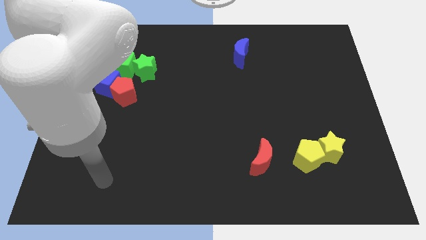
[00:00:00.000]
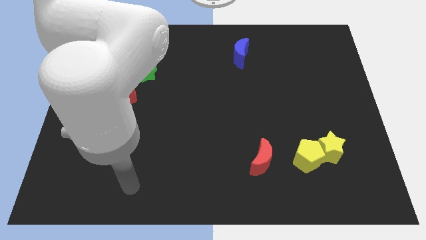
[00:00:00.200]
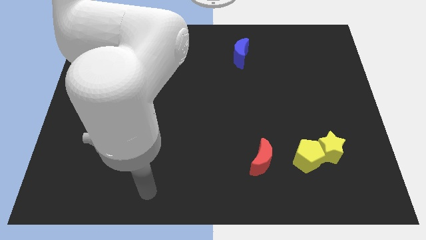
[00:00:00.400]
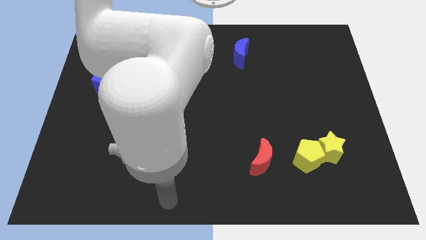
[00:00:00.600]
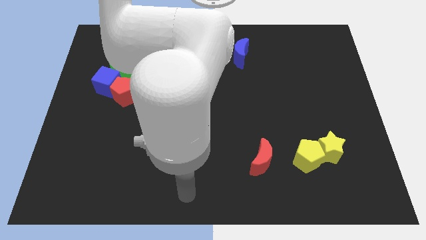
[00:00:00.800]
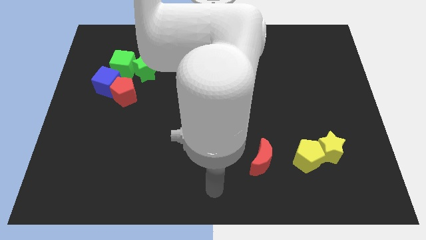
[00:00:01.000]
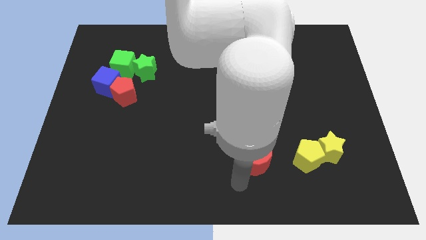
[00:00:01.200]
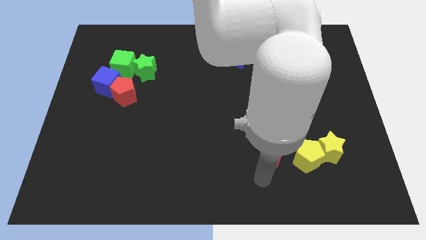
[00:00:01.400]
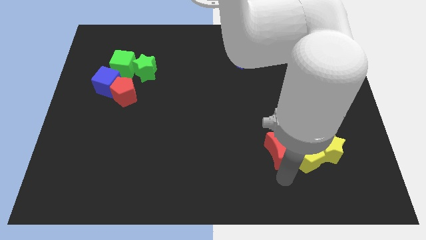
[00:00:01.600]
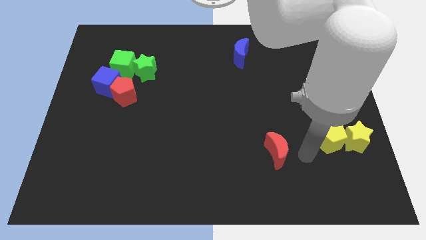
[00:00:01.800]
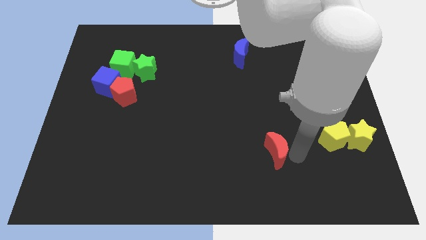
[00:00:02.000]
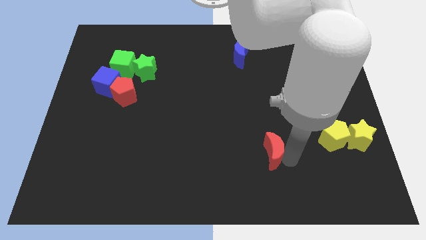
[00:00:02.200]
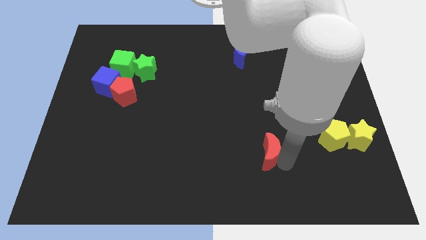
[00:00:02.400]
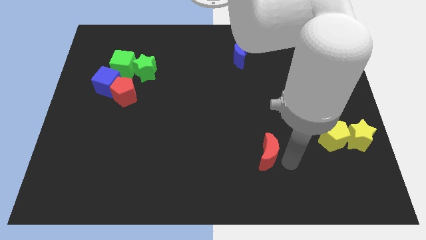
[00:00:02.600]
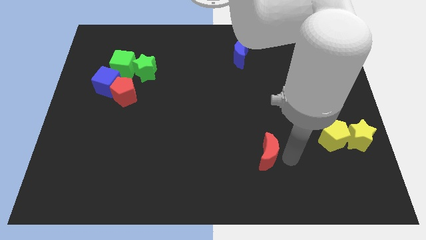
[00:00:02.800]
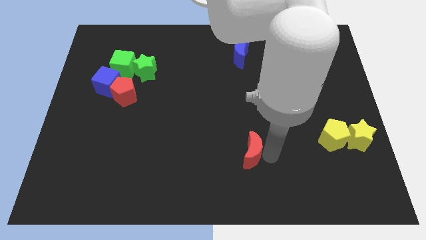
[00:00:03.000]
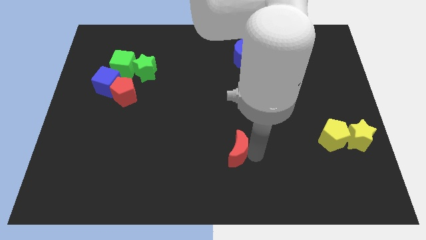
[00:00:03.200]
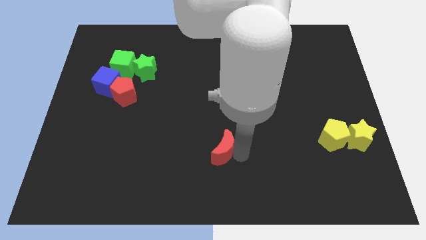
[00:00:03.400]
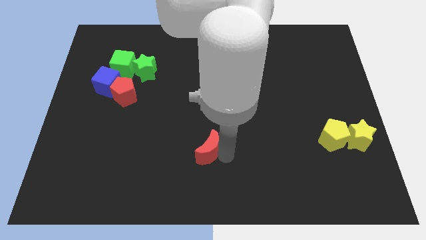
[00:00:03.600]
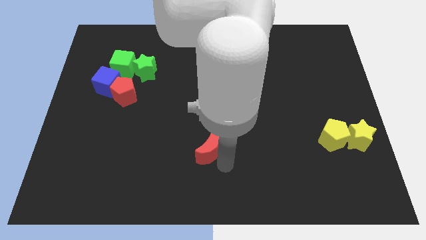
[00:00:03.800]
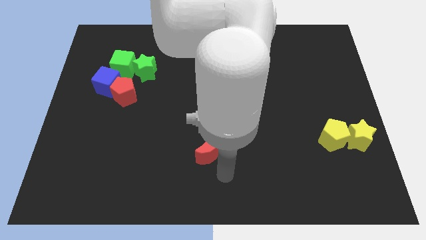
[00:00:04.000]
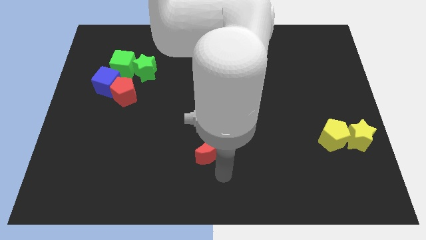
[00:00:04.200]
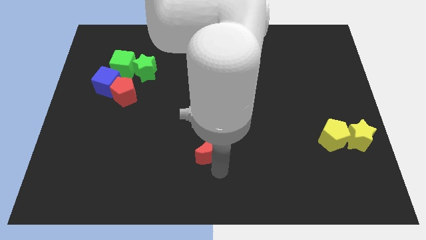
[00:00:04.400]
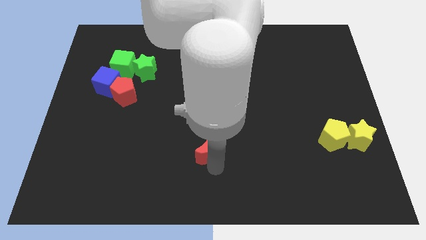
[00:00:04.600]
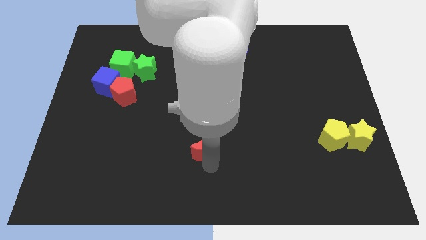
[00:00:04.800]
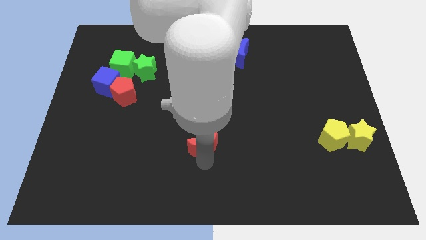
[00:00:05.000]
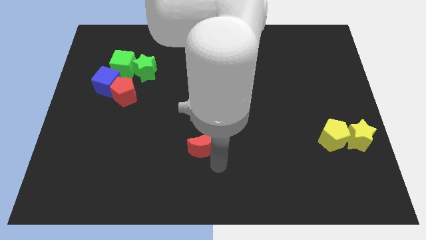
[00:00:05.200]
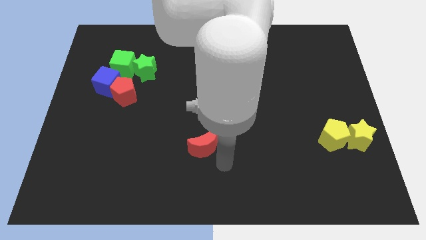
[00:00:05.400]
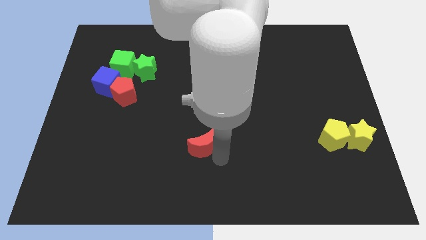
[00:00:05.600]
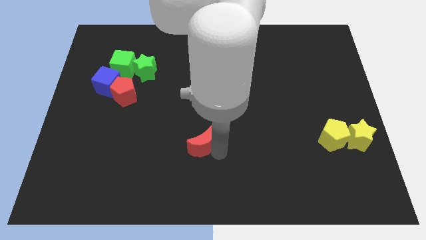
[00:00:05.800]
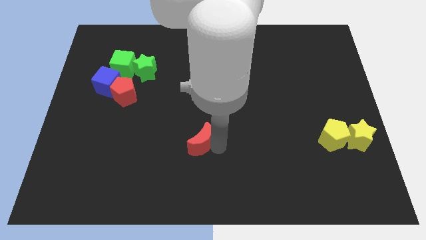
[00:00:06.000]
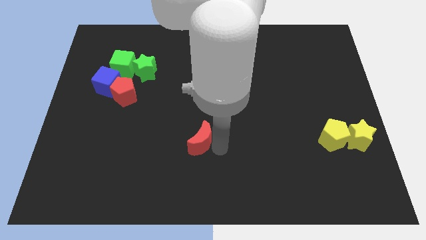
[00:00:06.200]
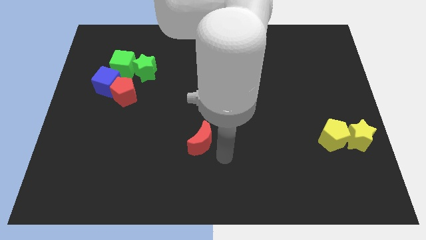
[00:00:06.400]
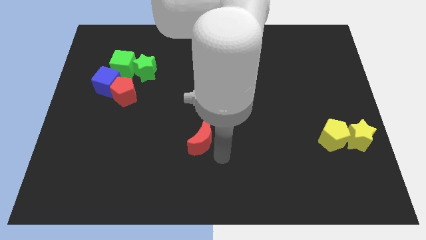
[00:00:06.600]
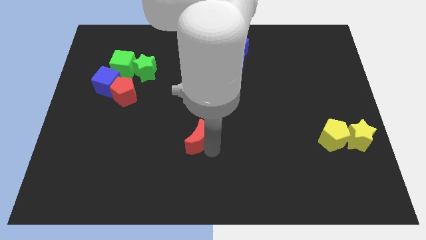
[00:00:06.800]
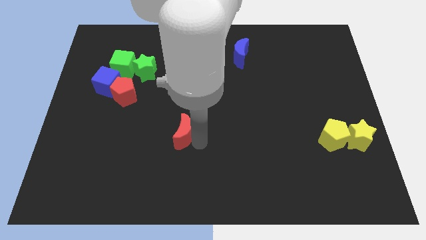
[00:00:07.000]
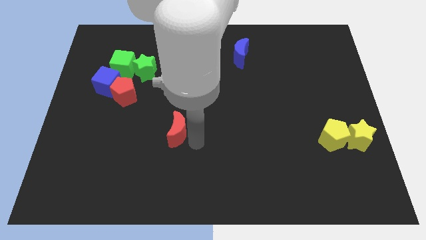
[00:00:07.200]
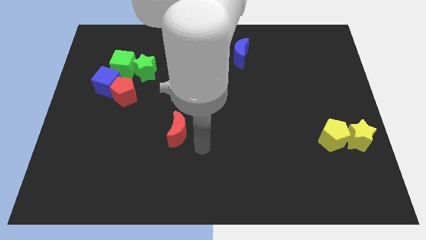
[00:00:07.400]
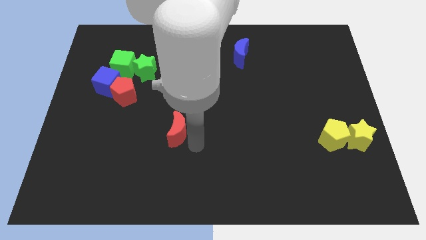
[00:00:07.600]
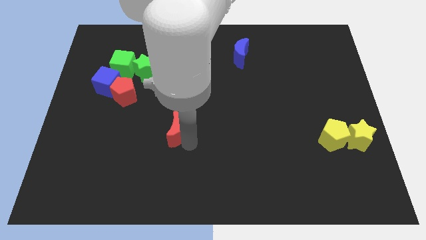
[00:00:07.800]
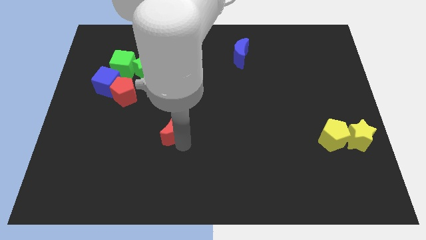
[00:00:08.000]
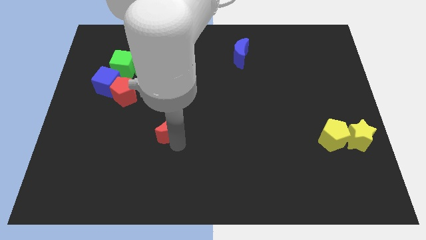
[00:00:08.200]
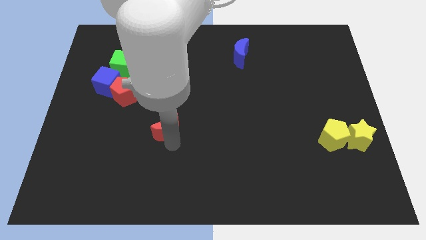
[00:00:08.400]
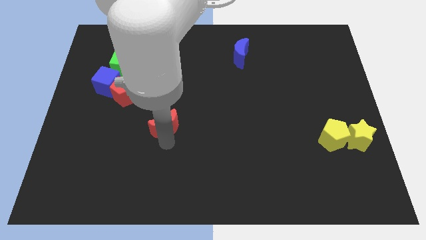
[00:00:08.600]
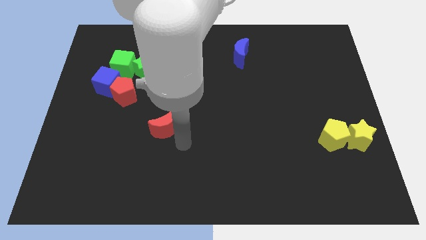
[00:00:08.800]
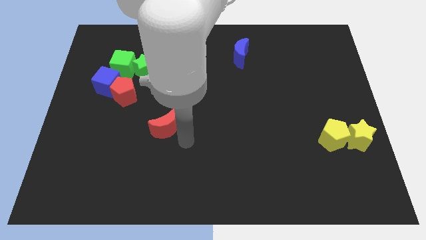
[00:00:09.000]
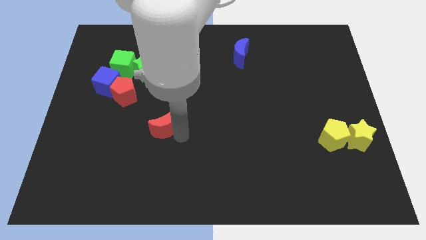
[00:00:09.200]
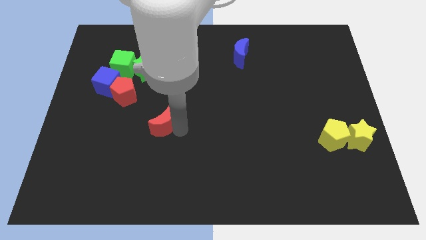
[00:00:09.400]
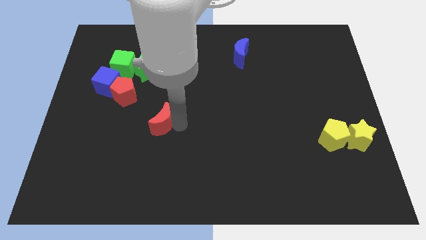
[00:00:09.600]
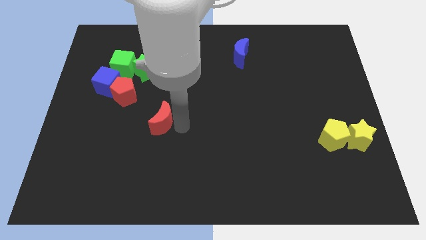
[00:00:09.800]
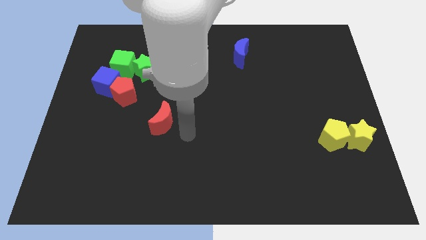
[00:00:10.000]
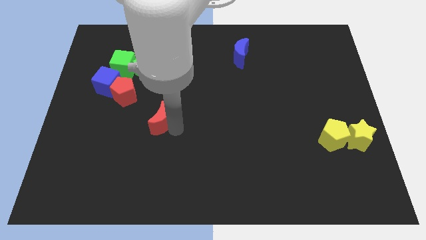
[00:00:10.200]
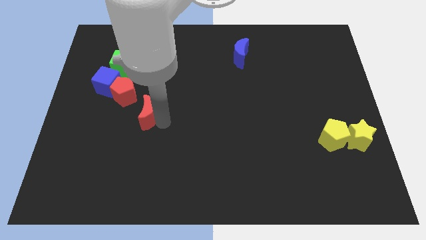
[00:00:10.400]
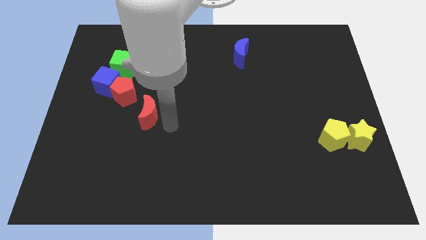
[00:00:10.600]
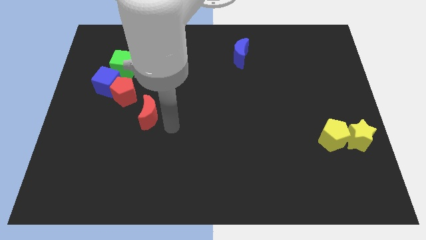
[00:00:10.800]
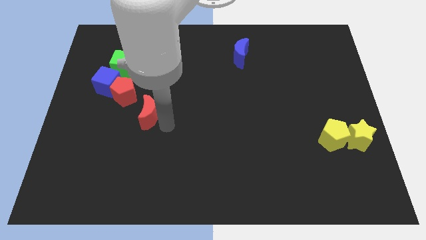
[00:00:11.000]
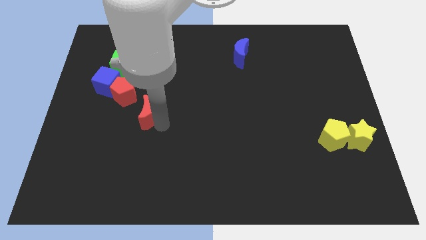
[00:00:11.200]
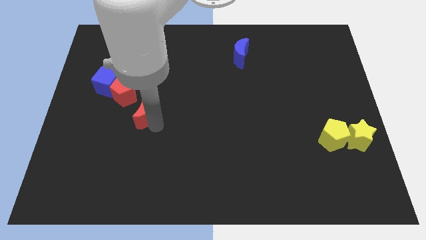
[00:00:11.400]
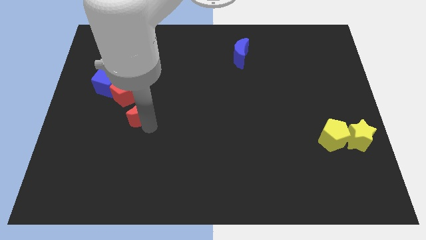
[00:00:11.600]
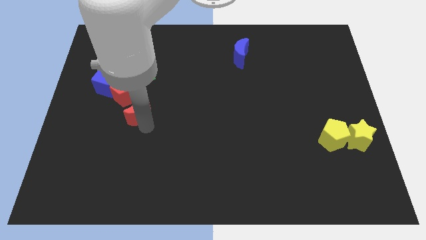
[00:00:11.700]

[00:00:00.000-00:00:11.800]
slide the red moon diagonally down and to the right of the blue cube
